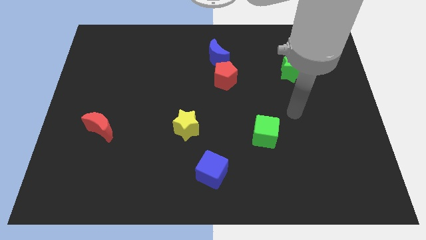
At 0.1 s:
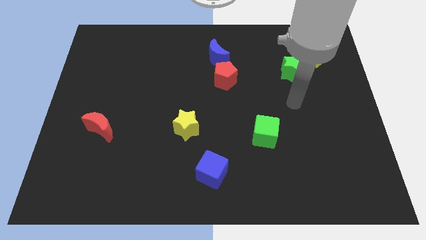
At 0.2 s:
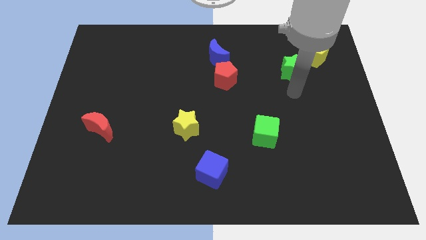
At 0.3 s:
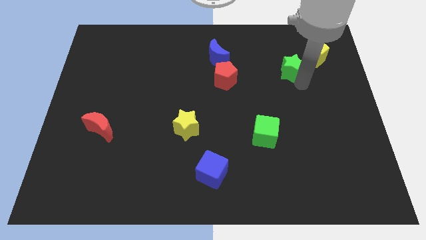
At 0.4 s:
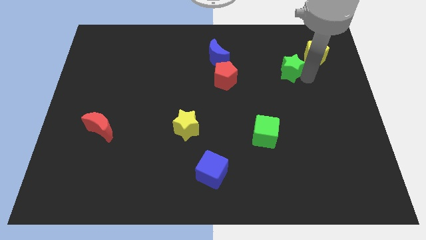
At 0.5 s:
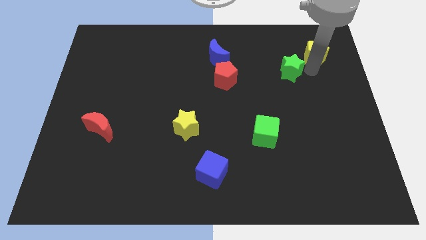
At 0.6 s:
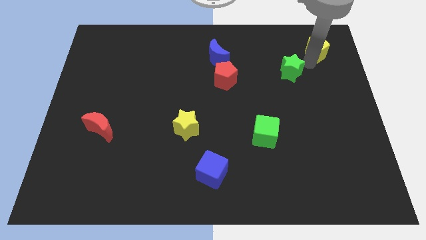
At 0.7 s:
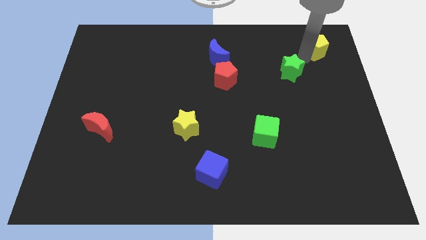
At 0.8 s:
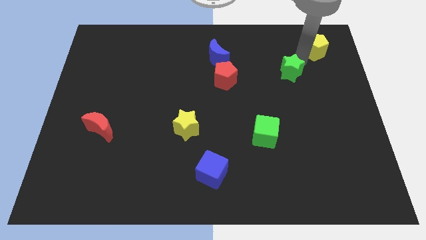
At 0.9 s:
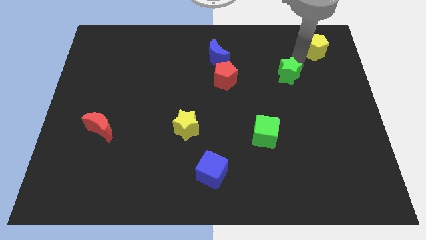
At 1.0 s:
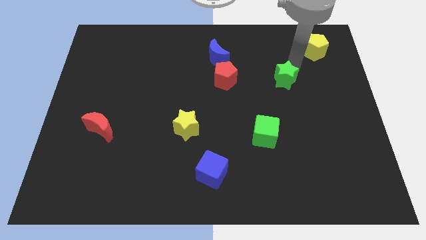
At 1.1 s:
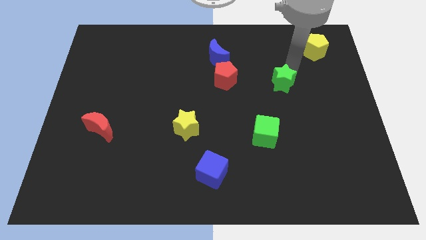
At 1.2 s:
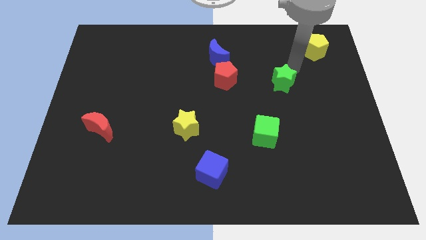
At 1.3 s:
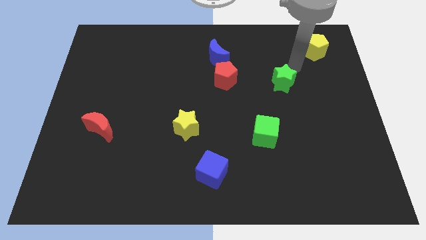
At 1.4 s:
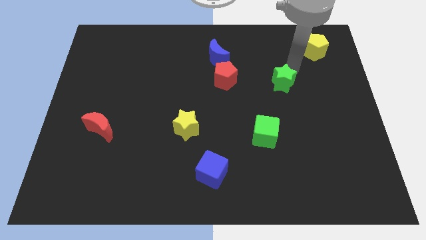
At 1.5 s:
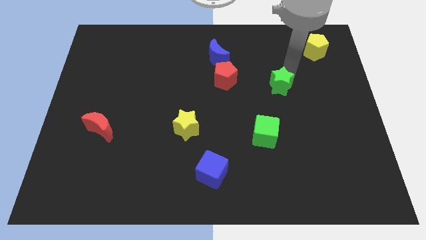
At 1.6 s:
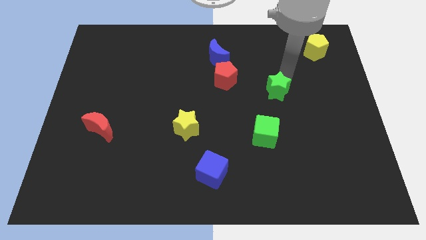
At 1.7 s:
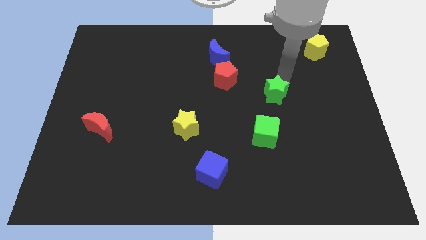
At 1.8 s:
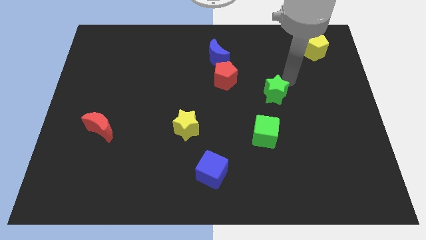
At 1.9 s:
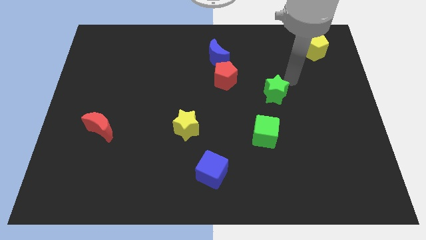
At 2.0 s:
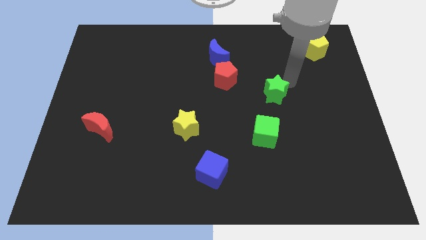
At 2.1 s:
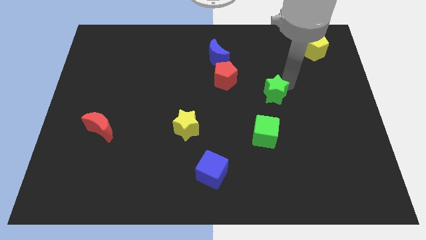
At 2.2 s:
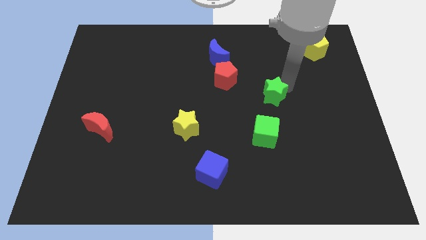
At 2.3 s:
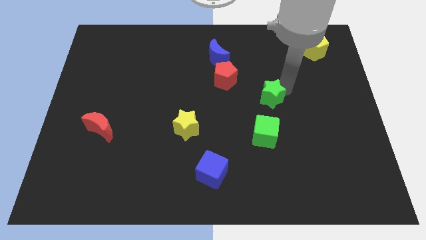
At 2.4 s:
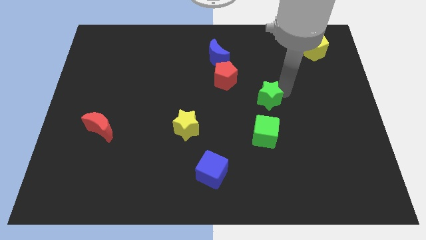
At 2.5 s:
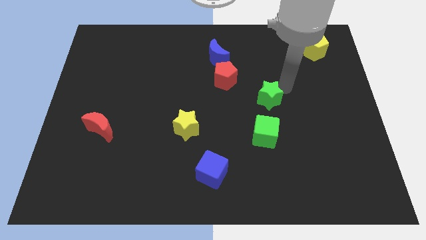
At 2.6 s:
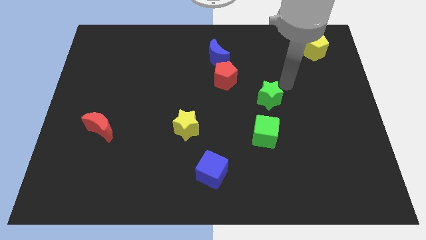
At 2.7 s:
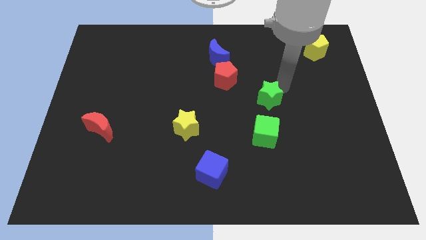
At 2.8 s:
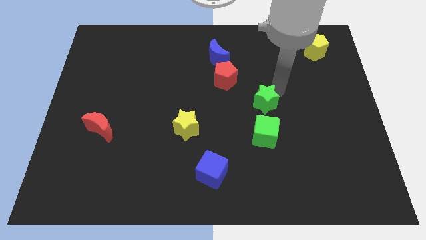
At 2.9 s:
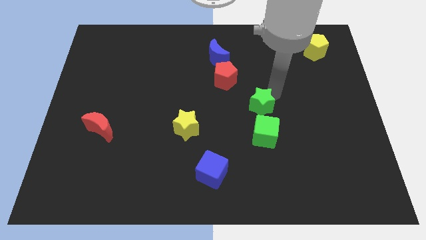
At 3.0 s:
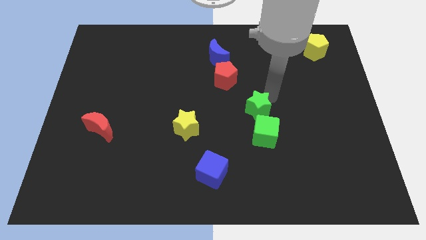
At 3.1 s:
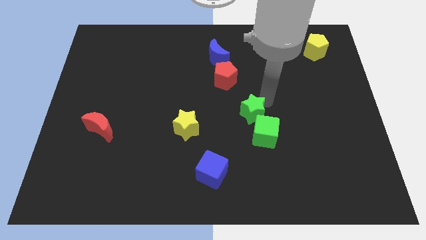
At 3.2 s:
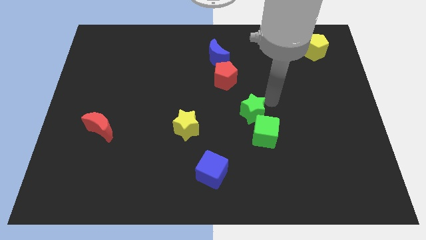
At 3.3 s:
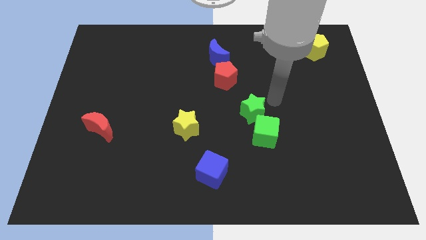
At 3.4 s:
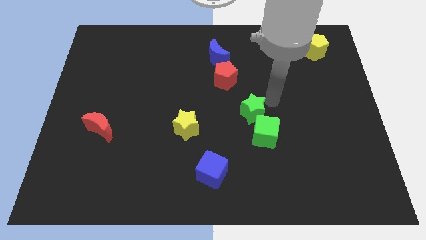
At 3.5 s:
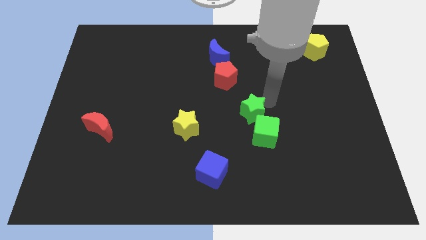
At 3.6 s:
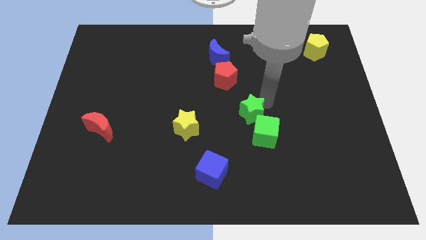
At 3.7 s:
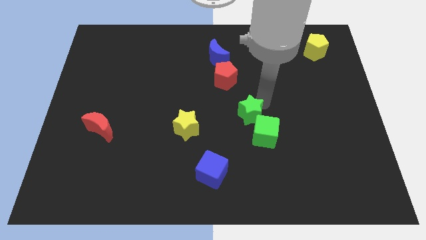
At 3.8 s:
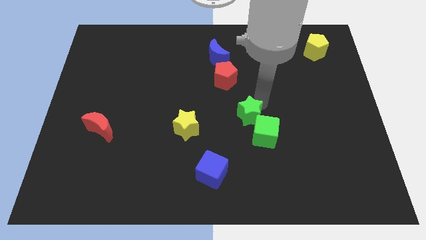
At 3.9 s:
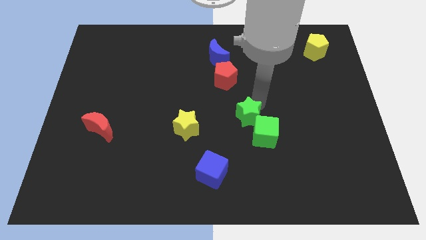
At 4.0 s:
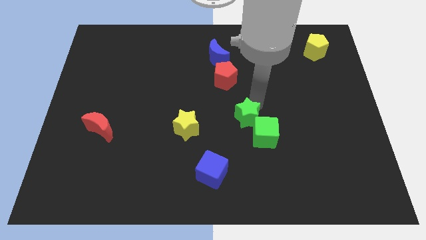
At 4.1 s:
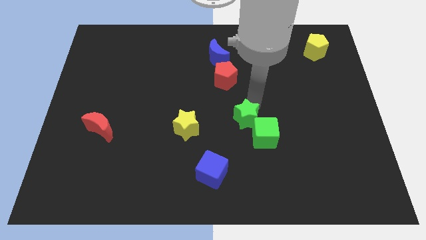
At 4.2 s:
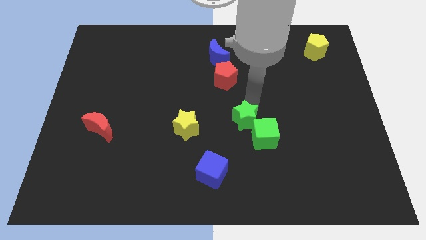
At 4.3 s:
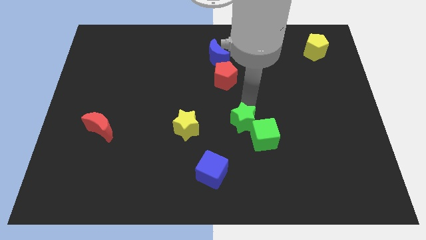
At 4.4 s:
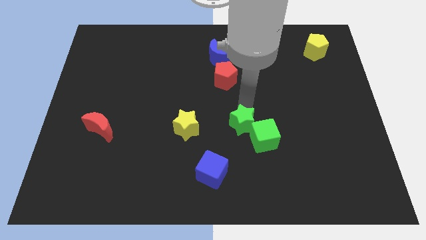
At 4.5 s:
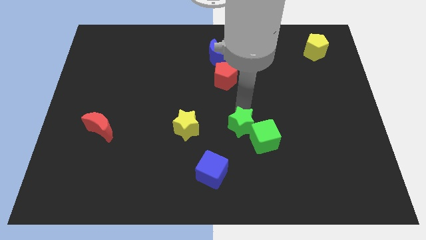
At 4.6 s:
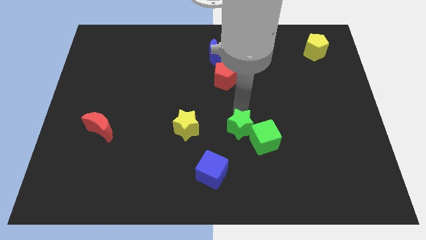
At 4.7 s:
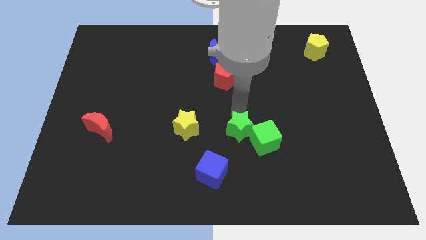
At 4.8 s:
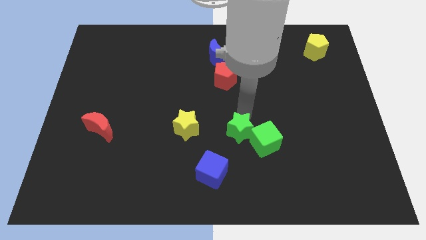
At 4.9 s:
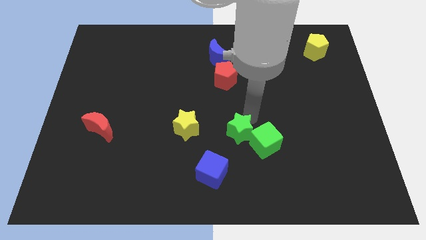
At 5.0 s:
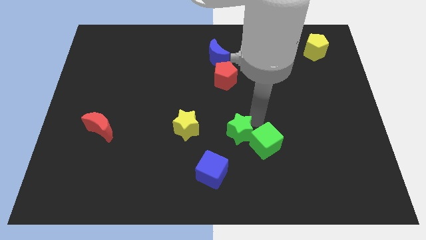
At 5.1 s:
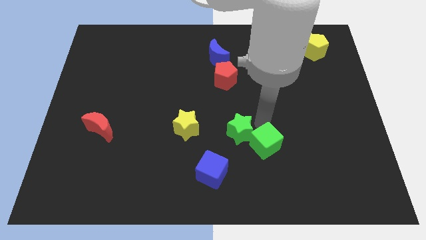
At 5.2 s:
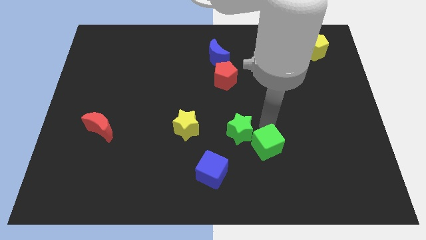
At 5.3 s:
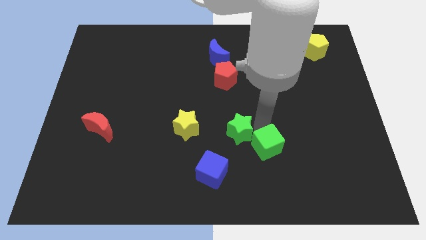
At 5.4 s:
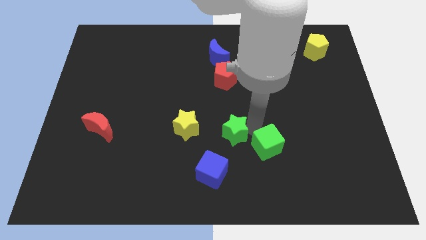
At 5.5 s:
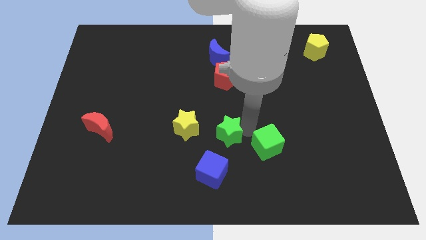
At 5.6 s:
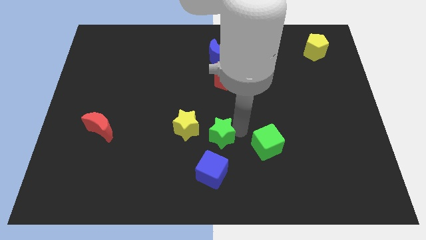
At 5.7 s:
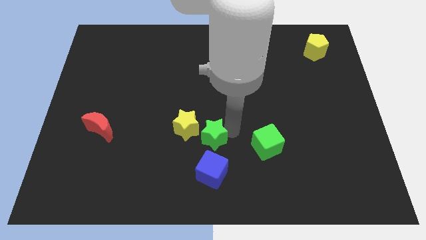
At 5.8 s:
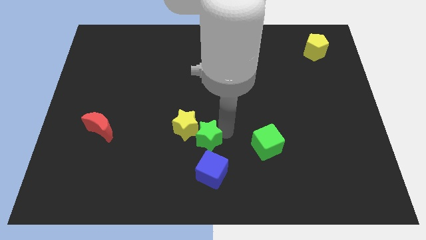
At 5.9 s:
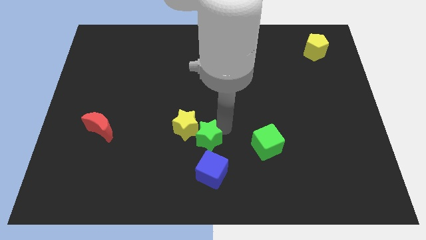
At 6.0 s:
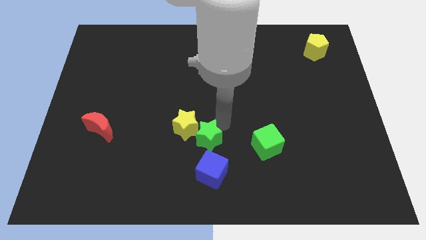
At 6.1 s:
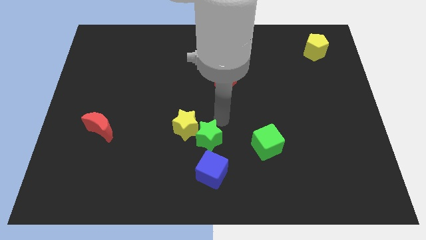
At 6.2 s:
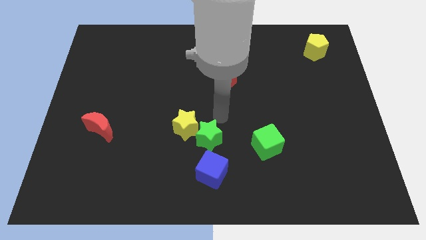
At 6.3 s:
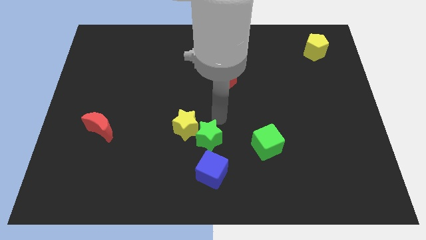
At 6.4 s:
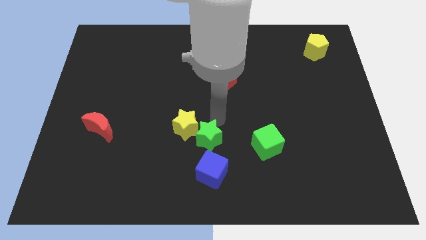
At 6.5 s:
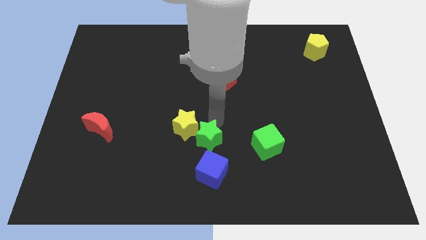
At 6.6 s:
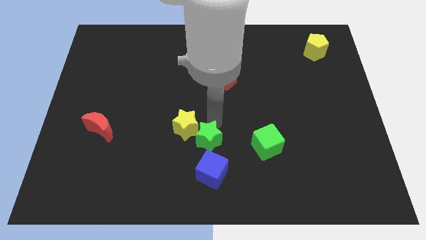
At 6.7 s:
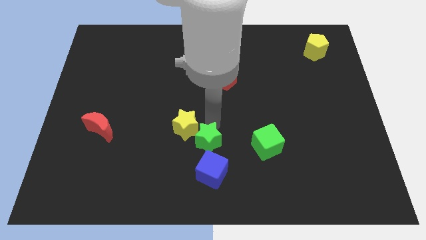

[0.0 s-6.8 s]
slide the green star below the yellow star

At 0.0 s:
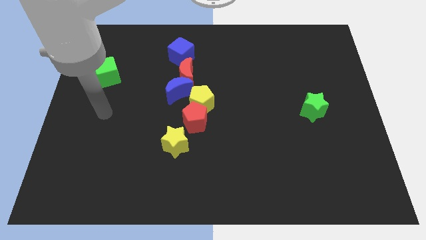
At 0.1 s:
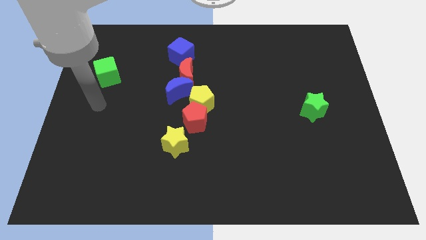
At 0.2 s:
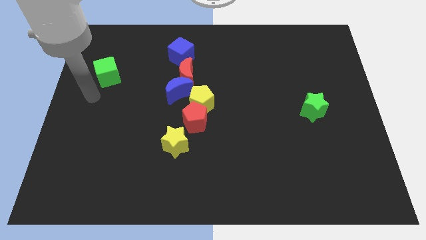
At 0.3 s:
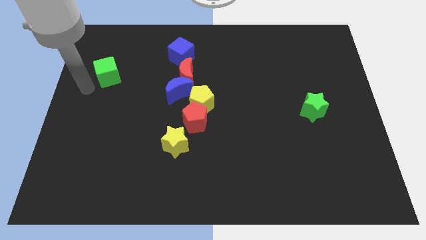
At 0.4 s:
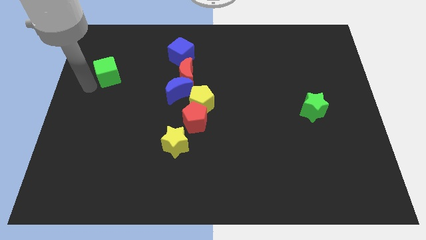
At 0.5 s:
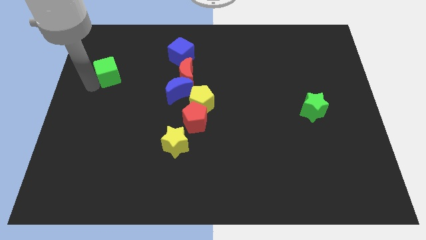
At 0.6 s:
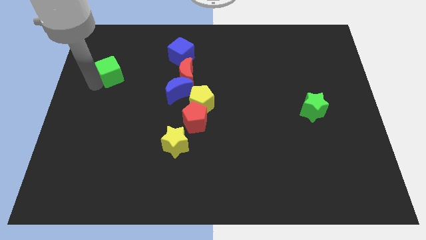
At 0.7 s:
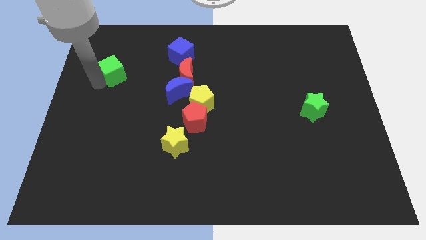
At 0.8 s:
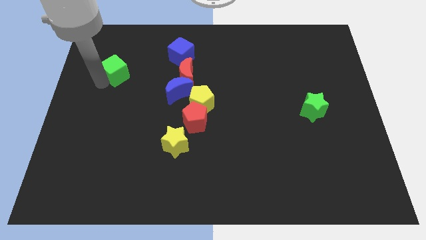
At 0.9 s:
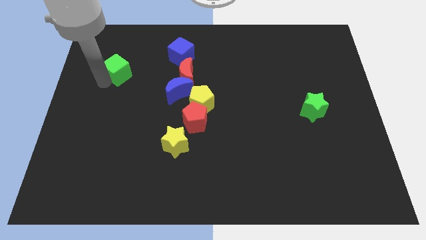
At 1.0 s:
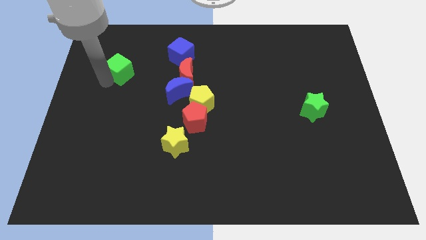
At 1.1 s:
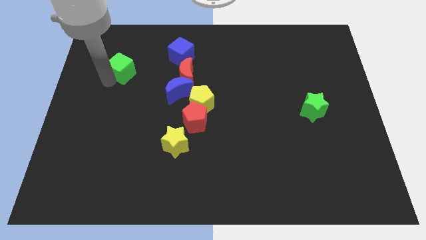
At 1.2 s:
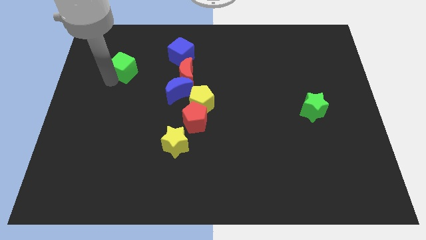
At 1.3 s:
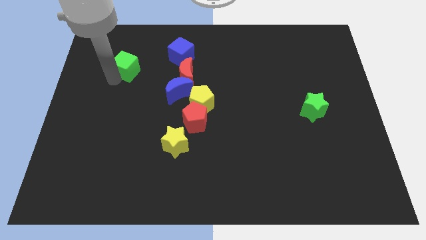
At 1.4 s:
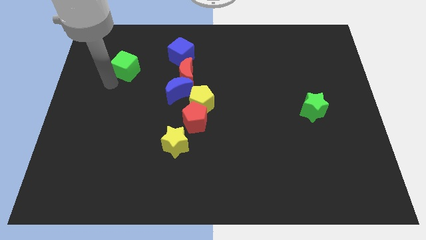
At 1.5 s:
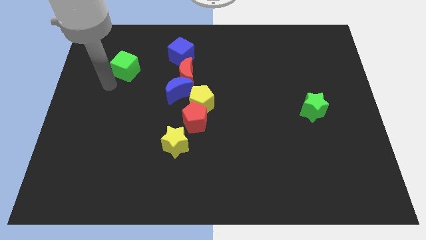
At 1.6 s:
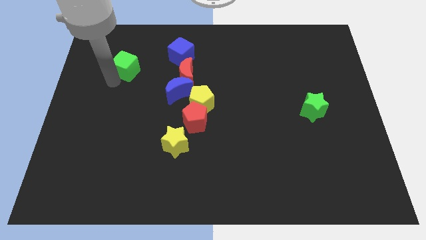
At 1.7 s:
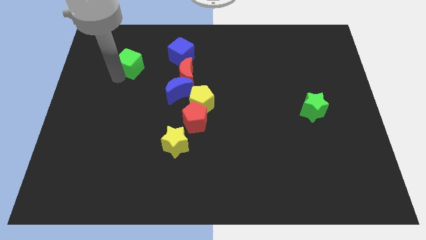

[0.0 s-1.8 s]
move the green cube left of the blue cube
